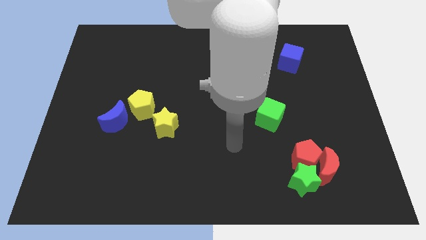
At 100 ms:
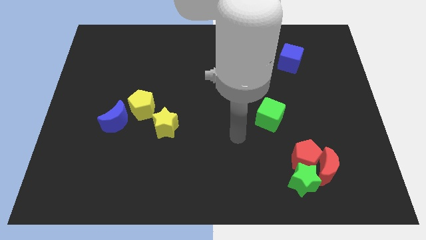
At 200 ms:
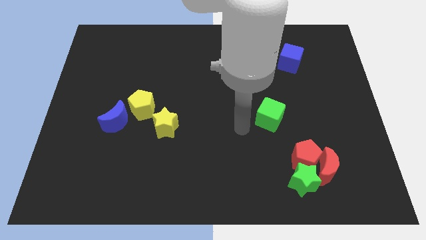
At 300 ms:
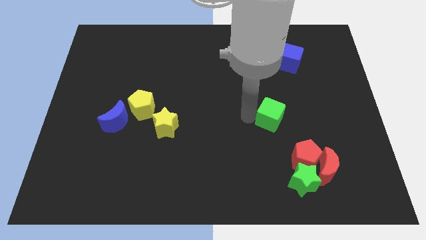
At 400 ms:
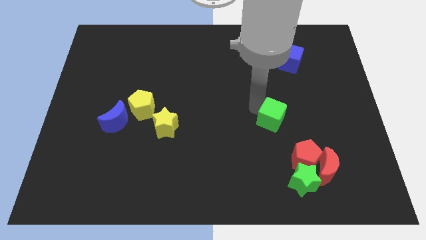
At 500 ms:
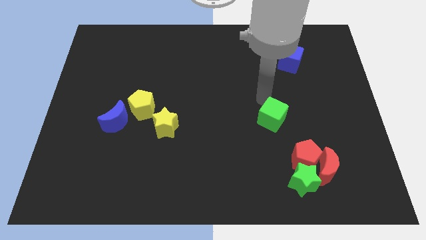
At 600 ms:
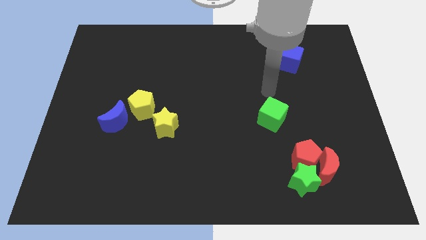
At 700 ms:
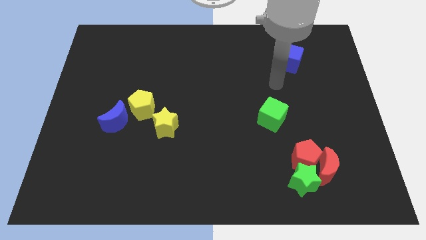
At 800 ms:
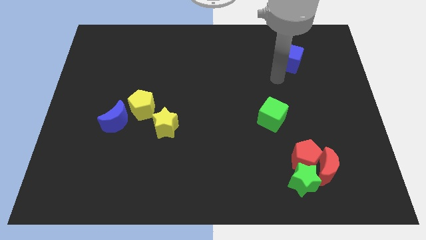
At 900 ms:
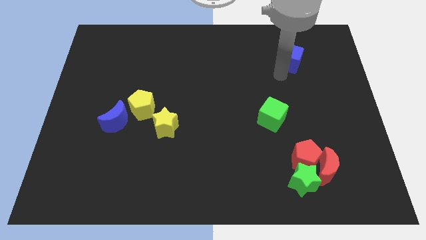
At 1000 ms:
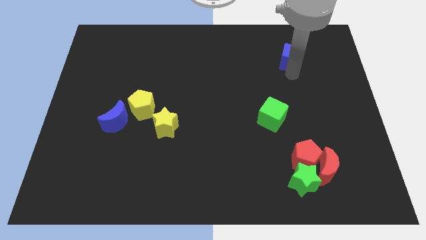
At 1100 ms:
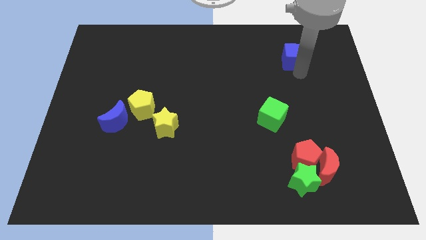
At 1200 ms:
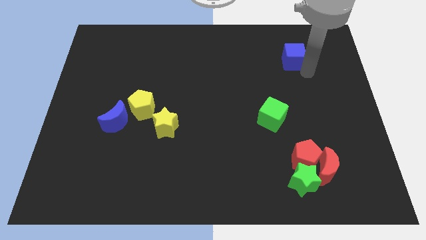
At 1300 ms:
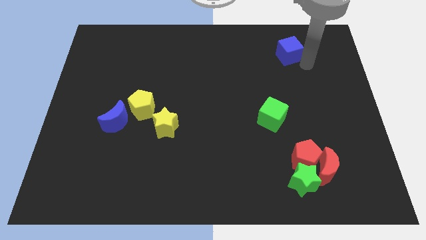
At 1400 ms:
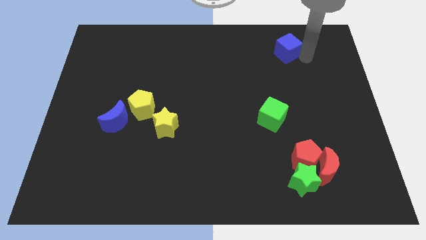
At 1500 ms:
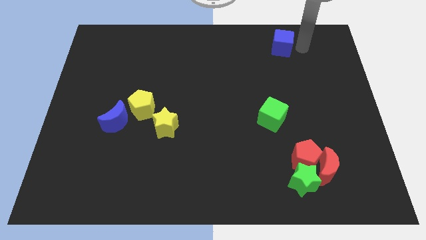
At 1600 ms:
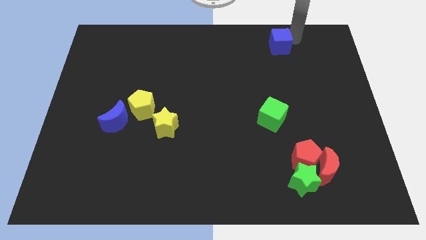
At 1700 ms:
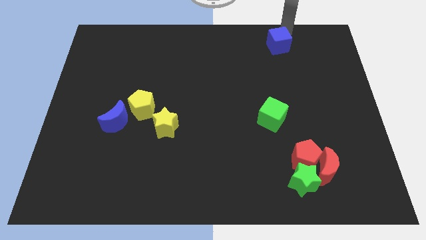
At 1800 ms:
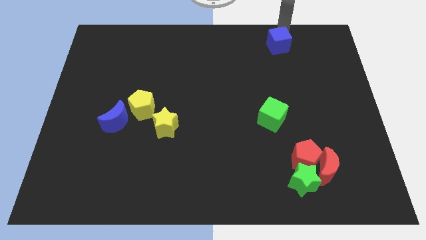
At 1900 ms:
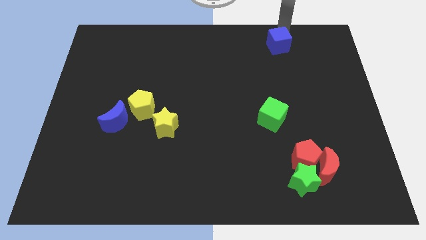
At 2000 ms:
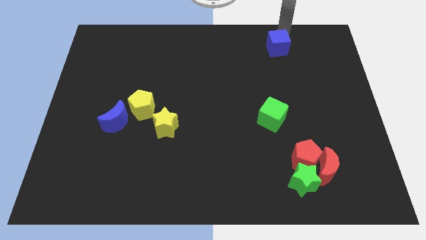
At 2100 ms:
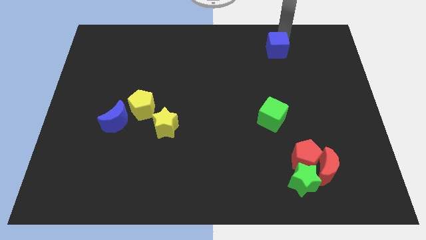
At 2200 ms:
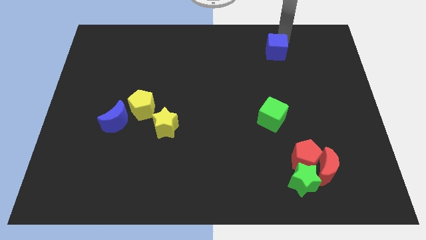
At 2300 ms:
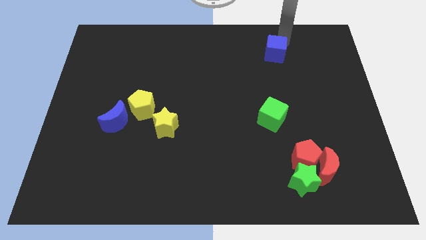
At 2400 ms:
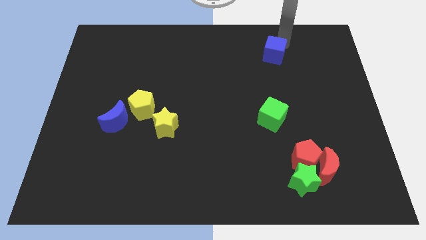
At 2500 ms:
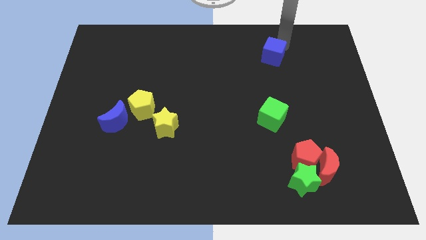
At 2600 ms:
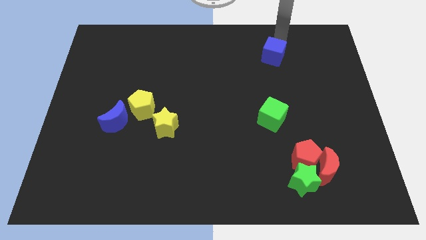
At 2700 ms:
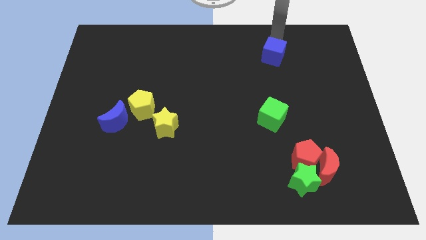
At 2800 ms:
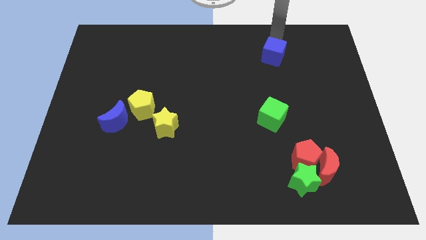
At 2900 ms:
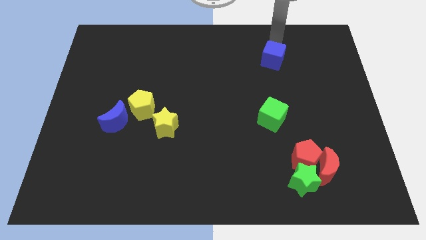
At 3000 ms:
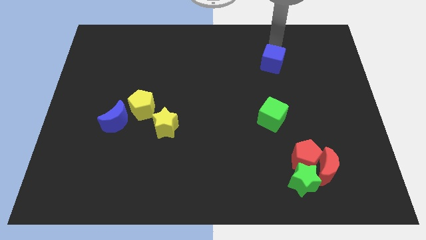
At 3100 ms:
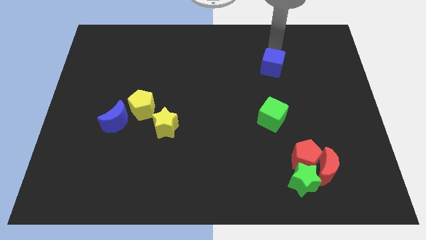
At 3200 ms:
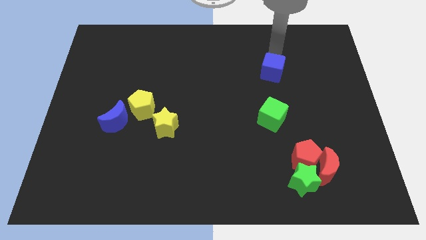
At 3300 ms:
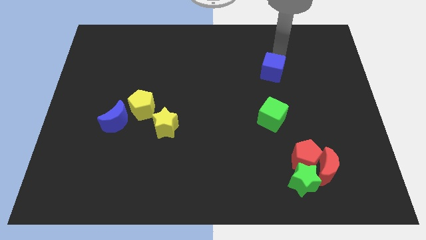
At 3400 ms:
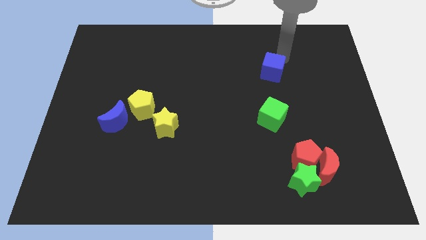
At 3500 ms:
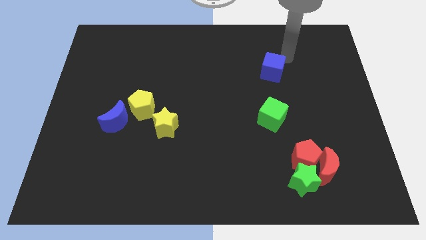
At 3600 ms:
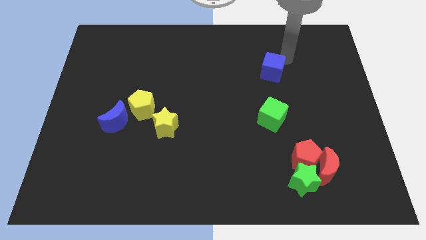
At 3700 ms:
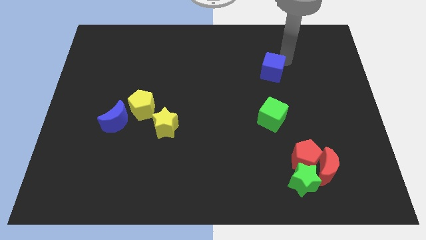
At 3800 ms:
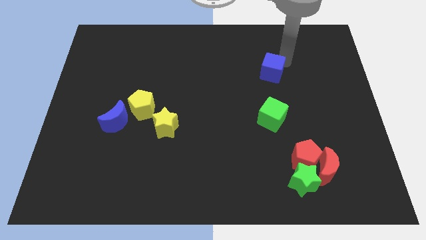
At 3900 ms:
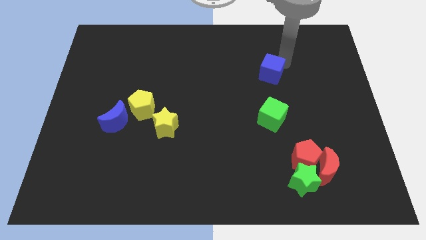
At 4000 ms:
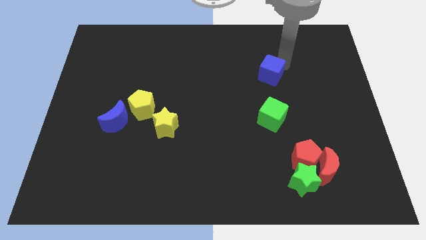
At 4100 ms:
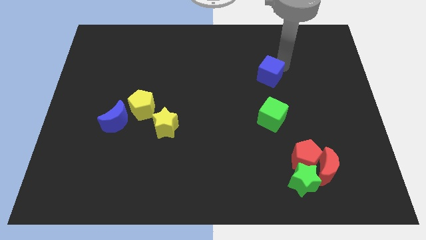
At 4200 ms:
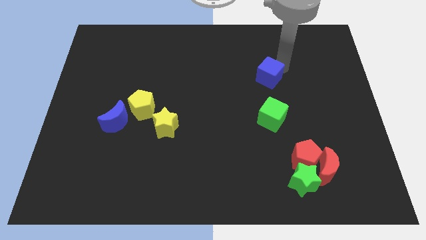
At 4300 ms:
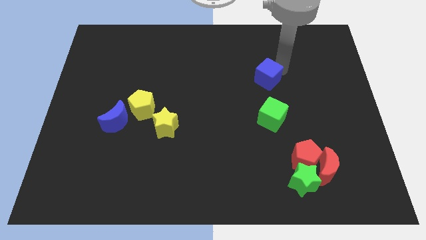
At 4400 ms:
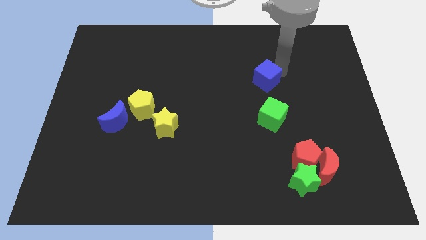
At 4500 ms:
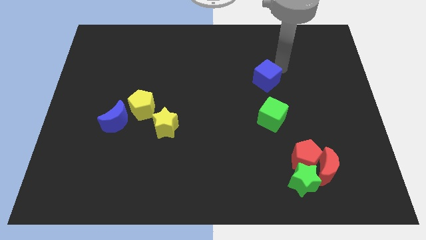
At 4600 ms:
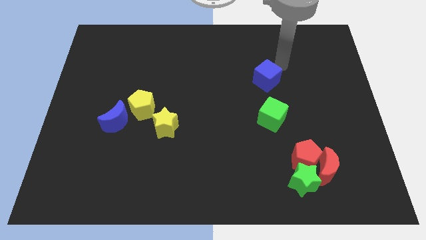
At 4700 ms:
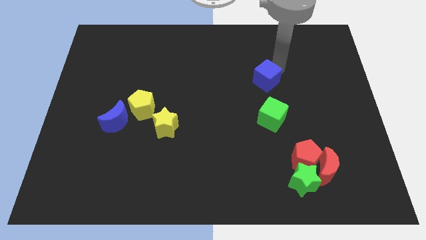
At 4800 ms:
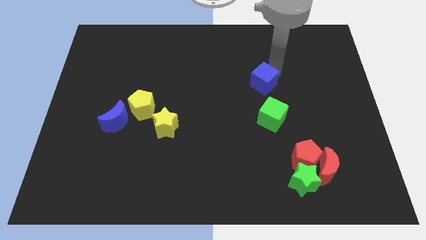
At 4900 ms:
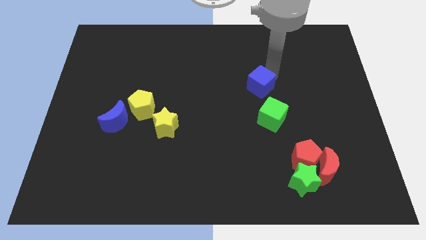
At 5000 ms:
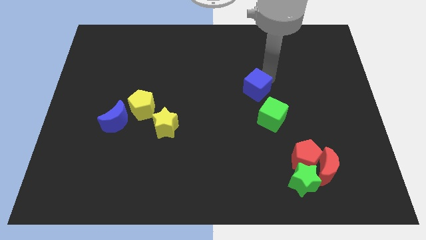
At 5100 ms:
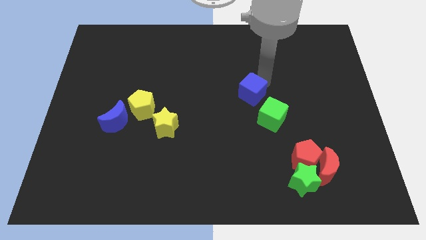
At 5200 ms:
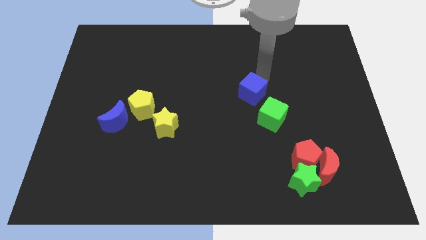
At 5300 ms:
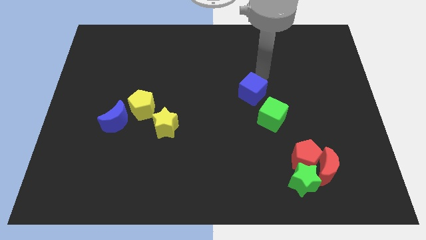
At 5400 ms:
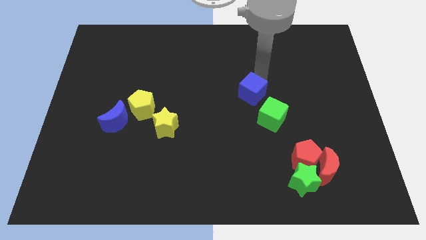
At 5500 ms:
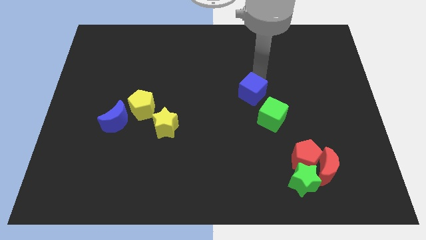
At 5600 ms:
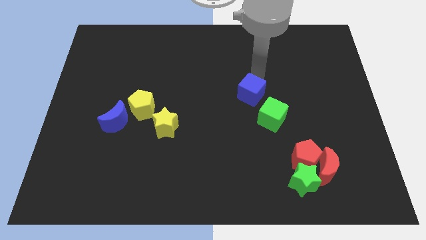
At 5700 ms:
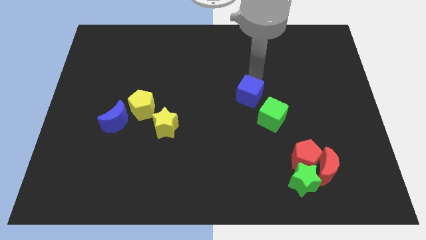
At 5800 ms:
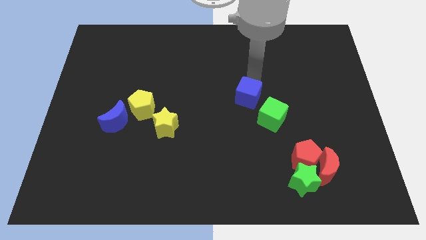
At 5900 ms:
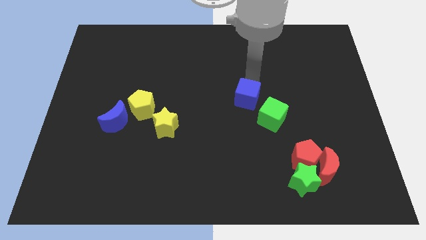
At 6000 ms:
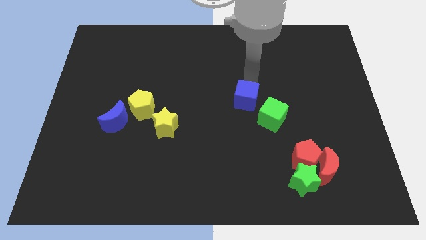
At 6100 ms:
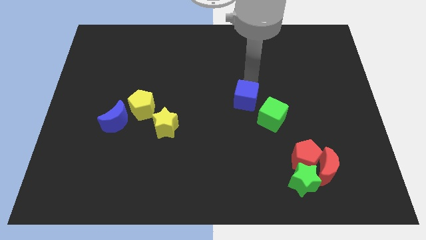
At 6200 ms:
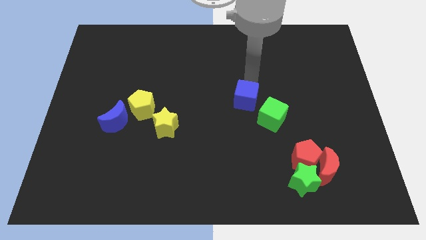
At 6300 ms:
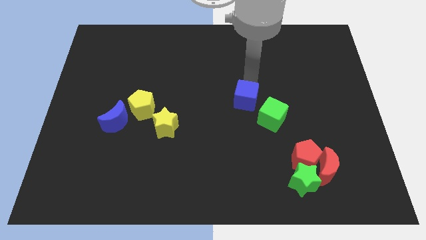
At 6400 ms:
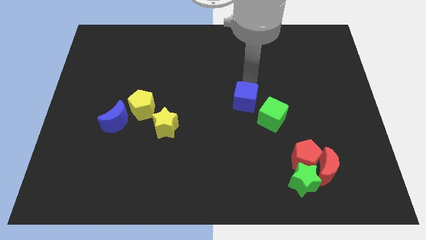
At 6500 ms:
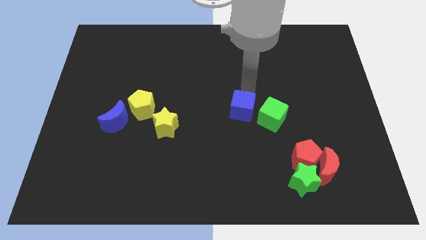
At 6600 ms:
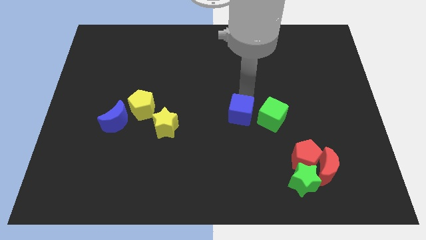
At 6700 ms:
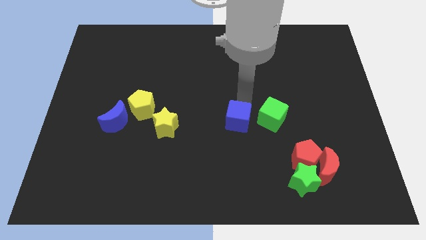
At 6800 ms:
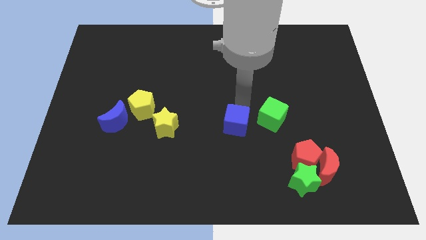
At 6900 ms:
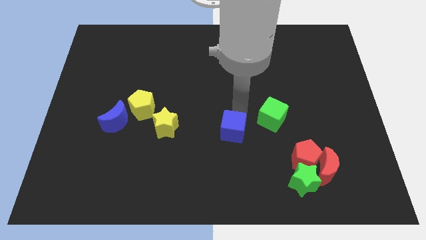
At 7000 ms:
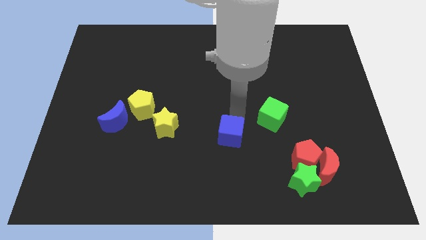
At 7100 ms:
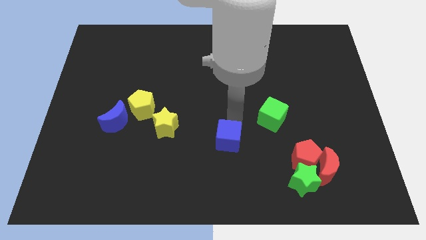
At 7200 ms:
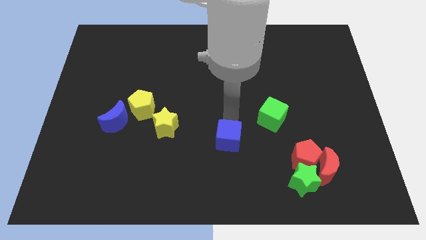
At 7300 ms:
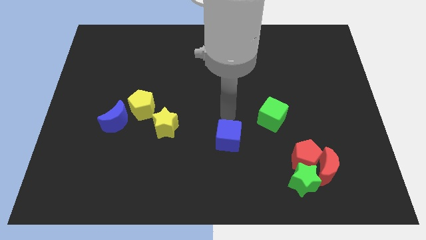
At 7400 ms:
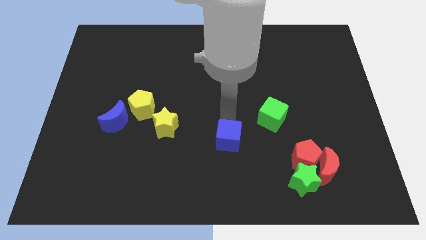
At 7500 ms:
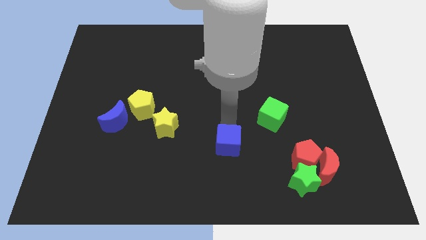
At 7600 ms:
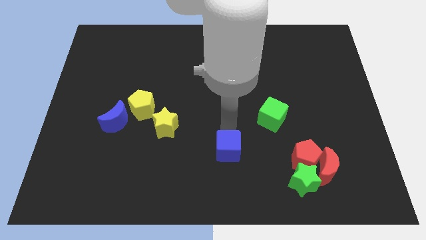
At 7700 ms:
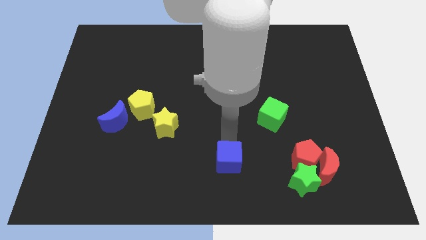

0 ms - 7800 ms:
put the blue cube to the bottom side
